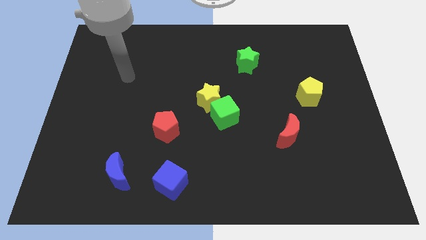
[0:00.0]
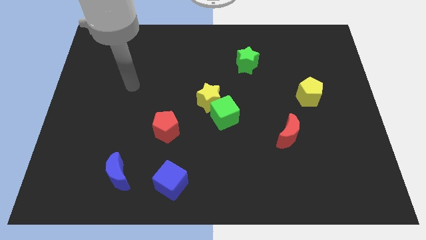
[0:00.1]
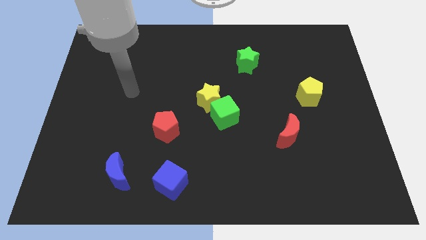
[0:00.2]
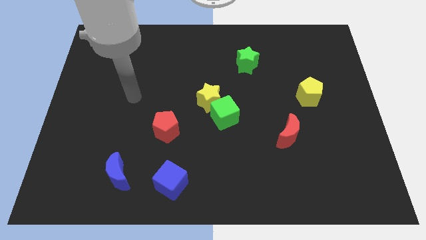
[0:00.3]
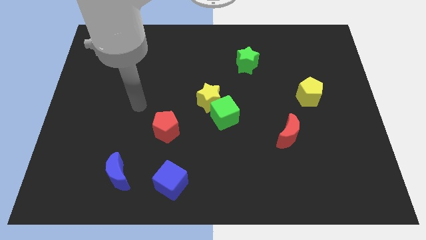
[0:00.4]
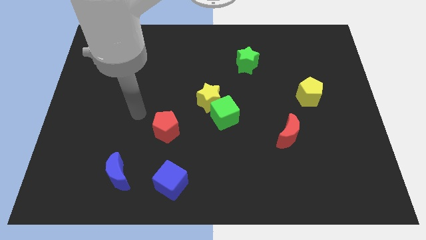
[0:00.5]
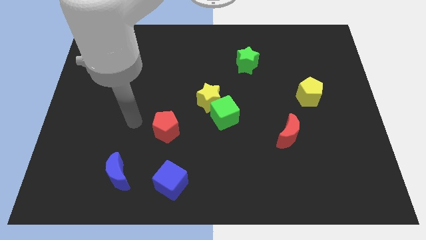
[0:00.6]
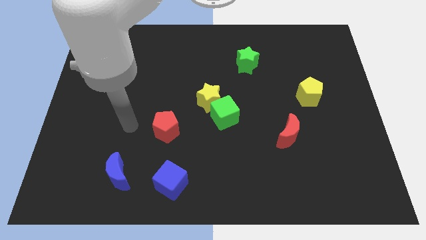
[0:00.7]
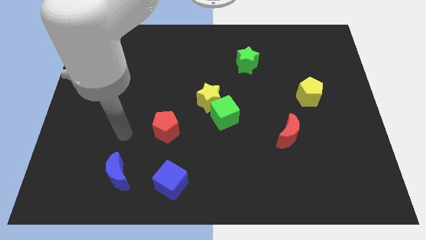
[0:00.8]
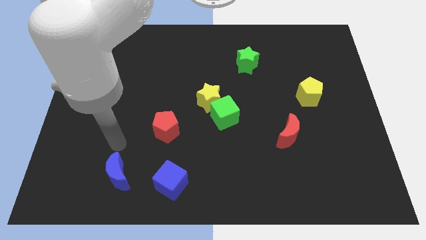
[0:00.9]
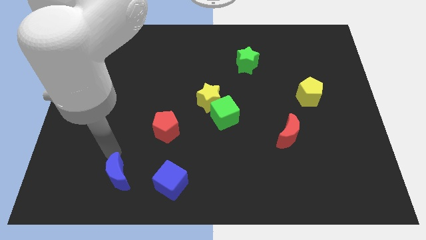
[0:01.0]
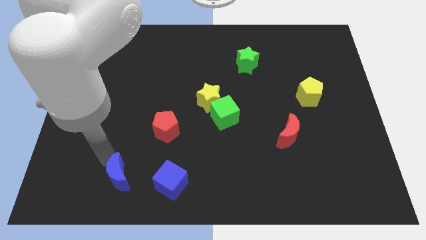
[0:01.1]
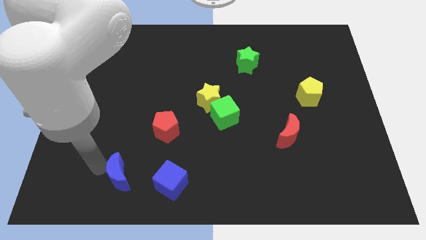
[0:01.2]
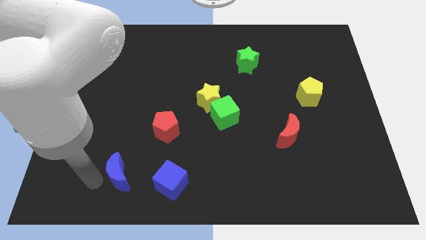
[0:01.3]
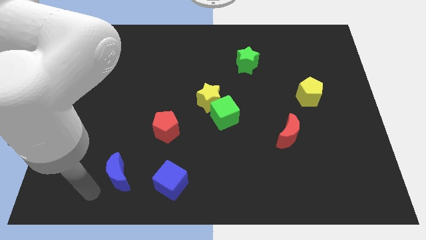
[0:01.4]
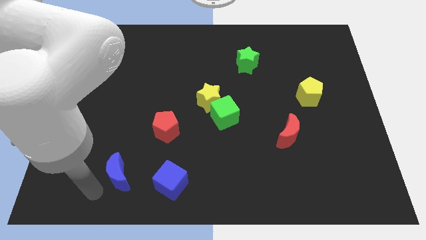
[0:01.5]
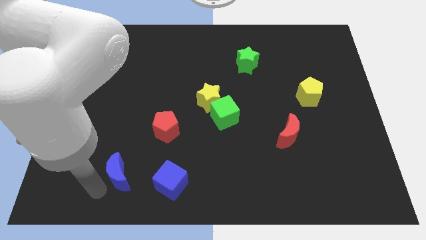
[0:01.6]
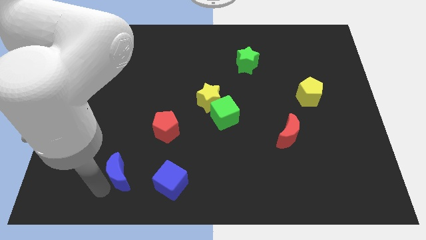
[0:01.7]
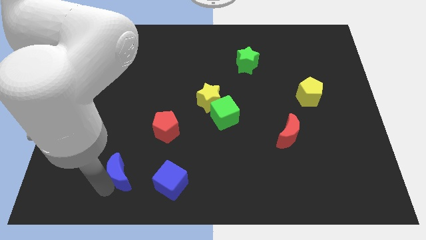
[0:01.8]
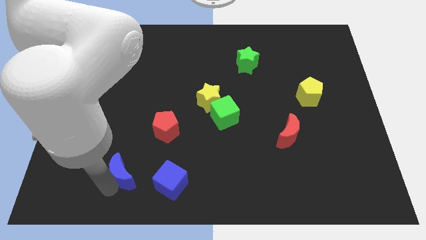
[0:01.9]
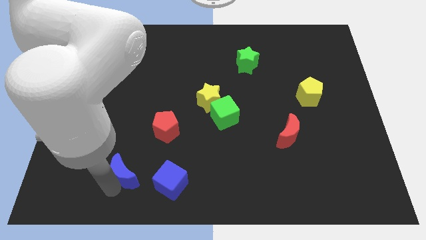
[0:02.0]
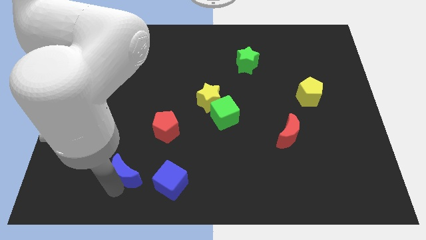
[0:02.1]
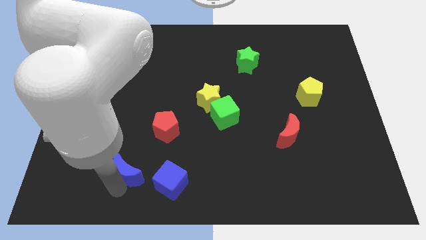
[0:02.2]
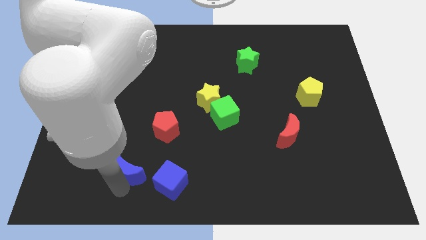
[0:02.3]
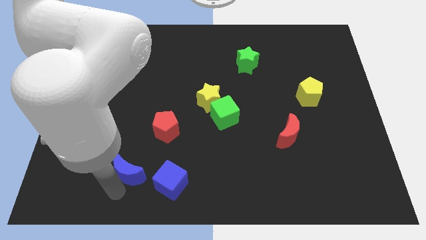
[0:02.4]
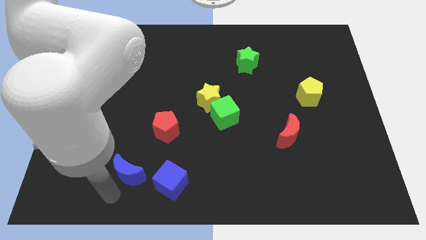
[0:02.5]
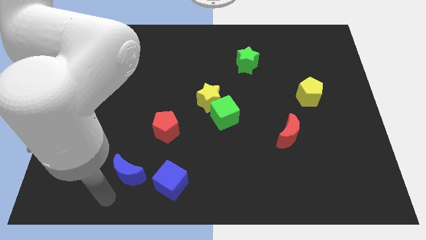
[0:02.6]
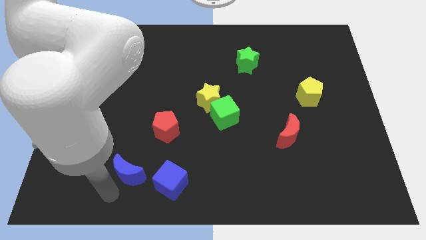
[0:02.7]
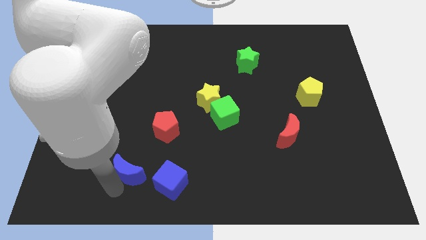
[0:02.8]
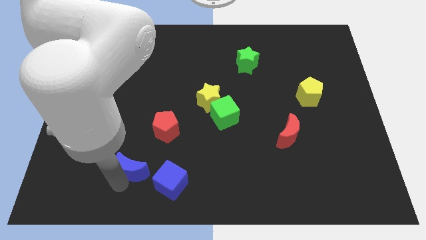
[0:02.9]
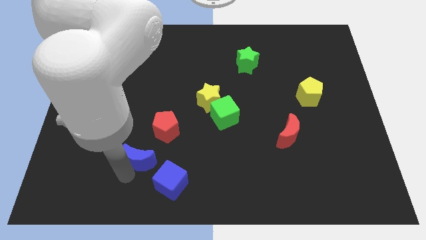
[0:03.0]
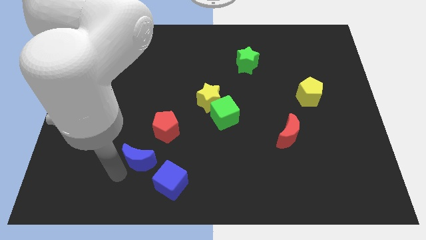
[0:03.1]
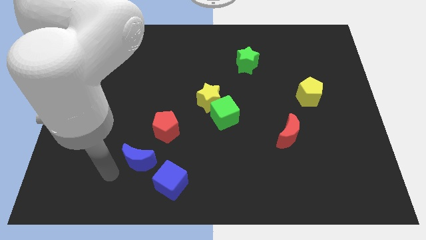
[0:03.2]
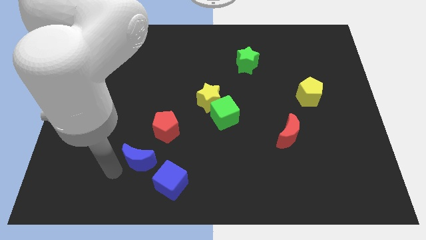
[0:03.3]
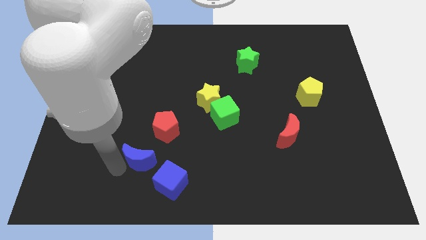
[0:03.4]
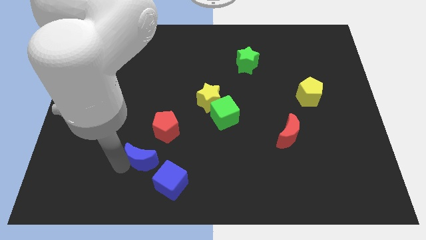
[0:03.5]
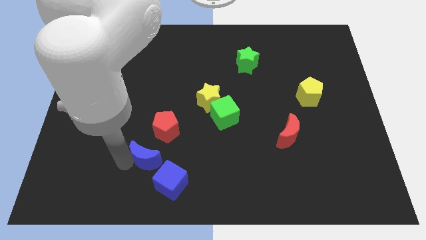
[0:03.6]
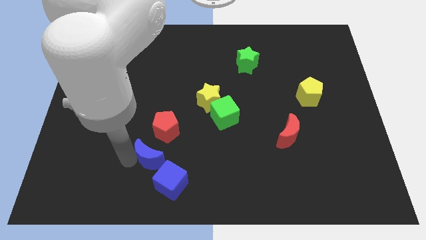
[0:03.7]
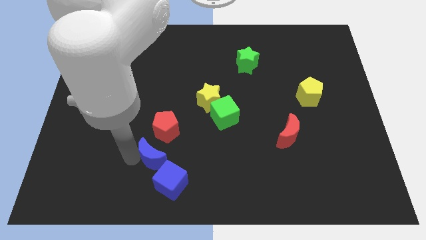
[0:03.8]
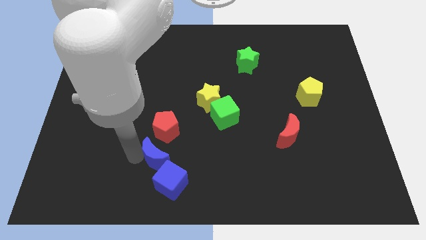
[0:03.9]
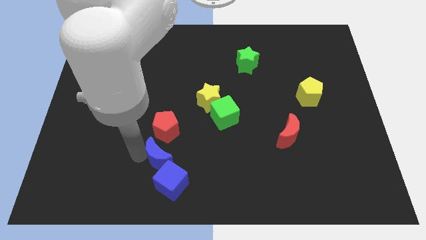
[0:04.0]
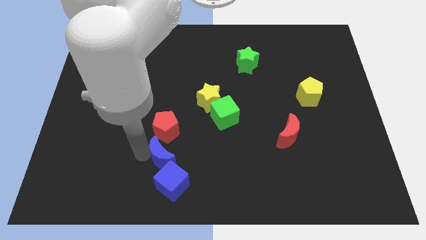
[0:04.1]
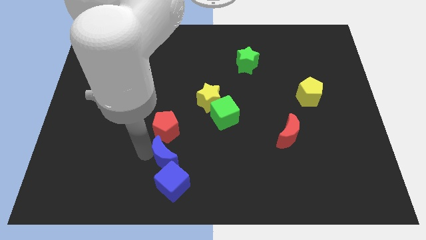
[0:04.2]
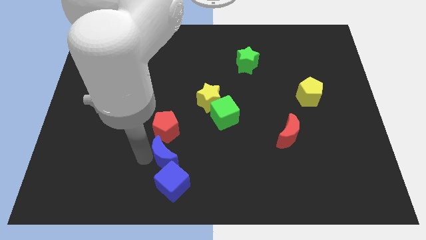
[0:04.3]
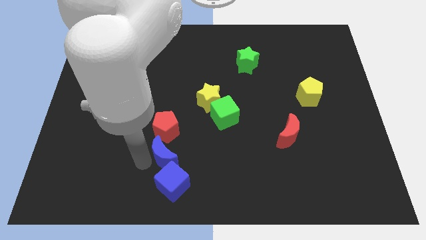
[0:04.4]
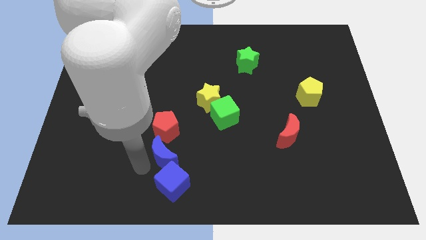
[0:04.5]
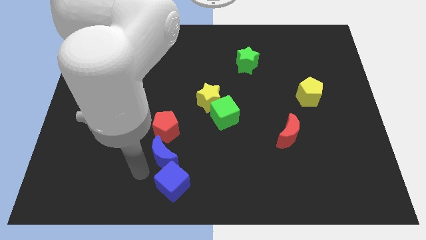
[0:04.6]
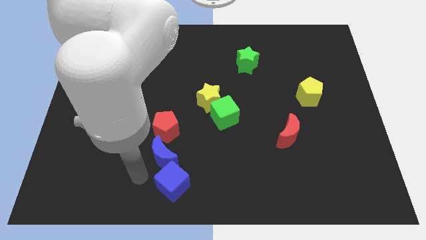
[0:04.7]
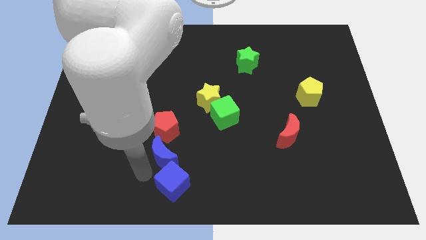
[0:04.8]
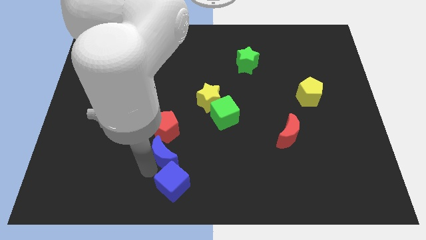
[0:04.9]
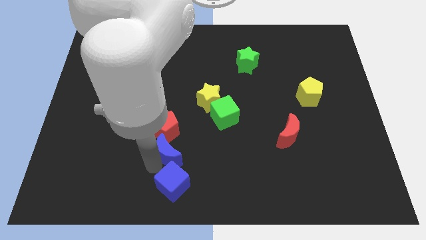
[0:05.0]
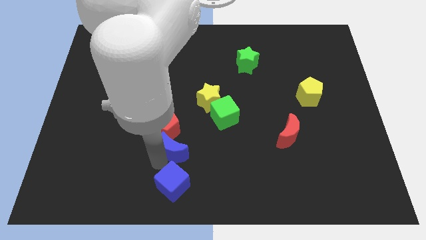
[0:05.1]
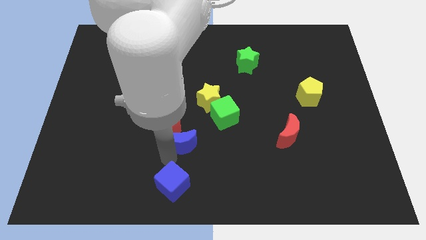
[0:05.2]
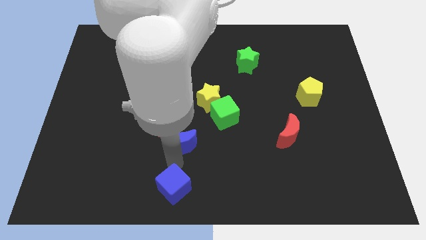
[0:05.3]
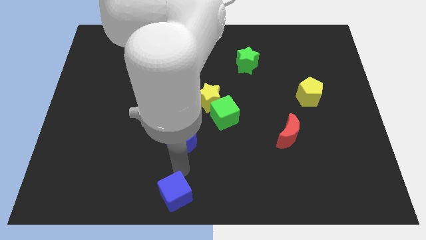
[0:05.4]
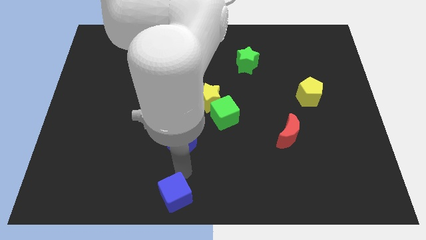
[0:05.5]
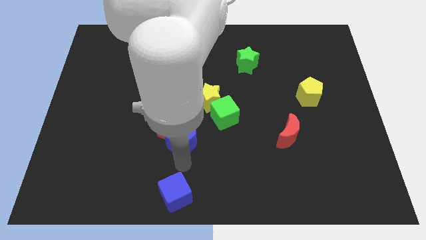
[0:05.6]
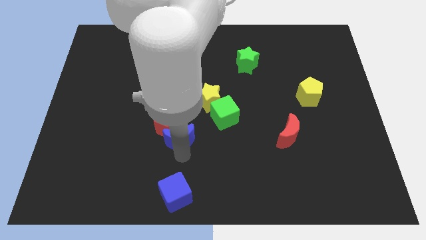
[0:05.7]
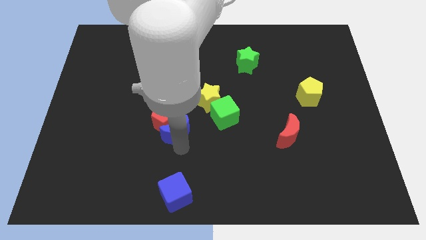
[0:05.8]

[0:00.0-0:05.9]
slide the blue moon just left of the green cube

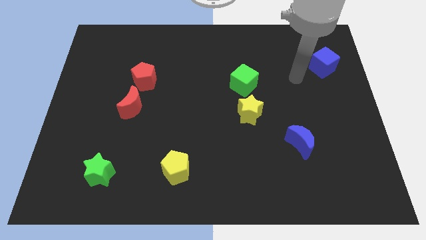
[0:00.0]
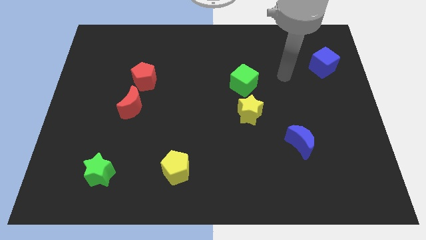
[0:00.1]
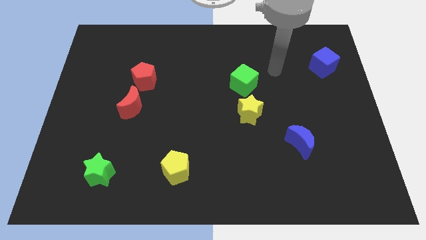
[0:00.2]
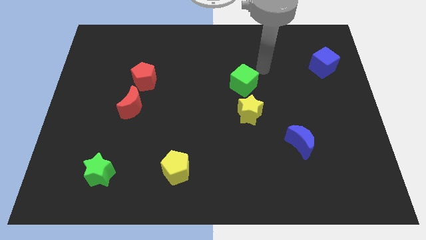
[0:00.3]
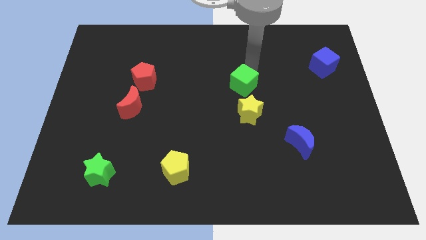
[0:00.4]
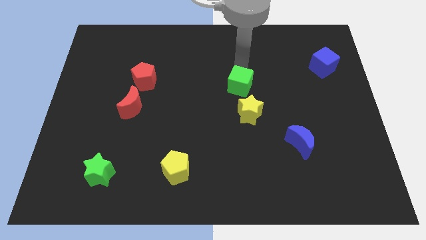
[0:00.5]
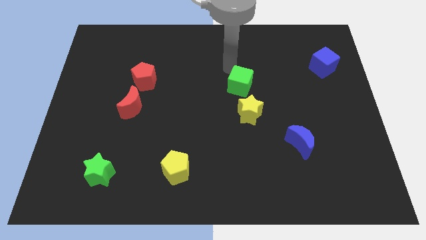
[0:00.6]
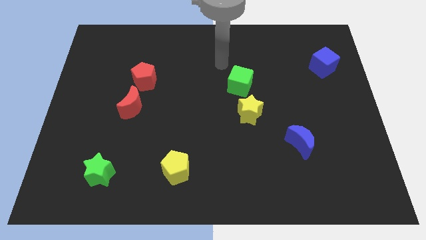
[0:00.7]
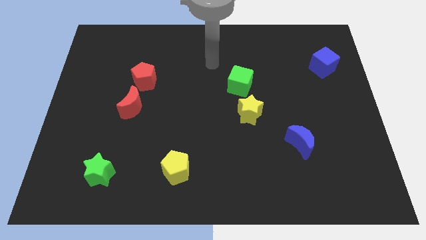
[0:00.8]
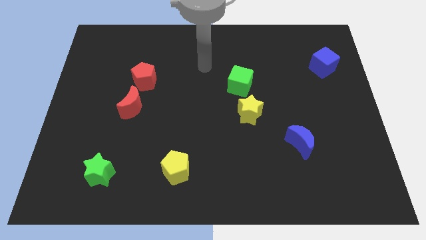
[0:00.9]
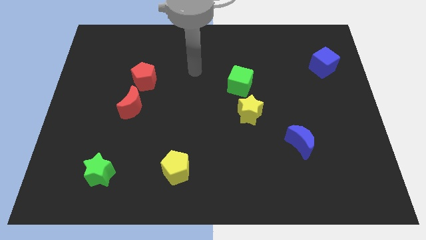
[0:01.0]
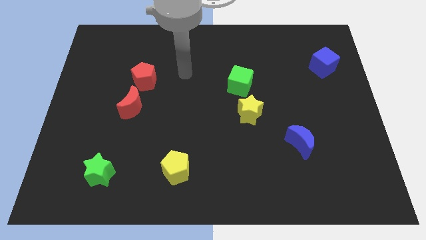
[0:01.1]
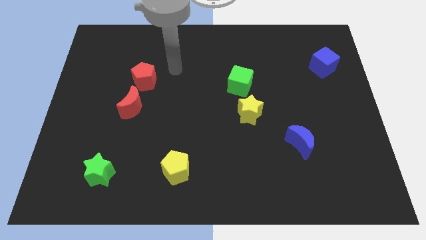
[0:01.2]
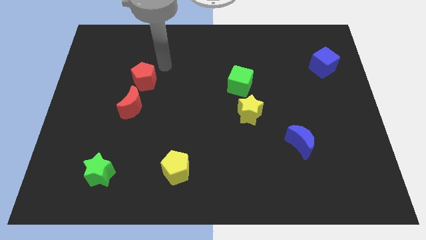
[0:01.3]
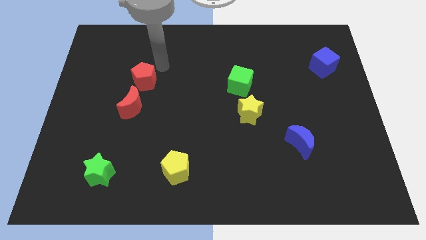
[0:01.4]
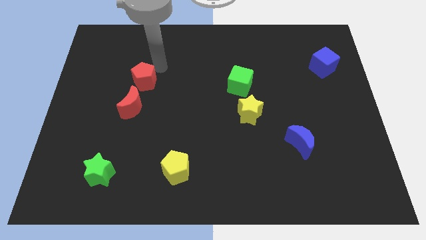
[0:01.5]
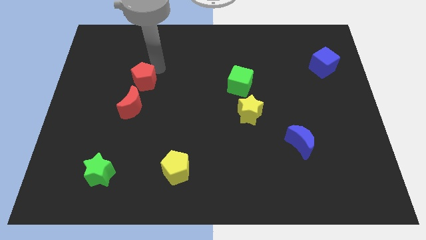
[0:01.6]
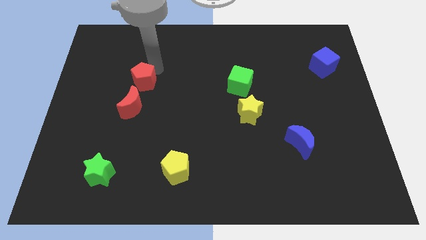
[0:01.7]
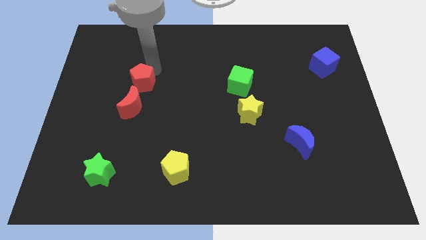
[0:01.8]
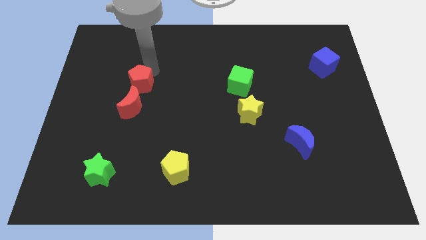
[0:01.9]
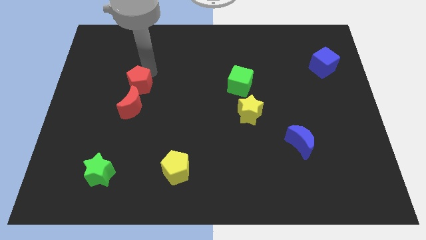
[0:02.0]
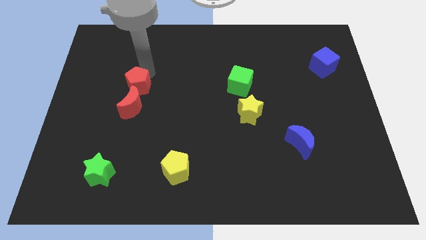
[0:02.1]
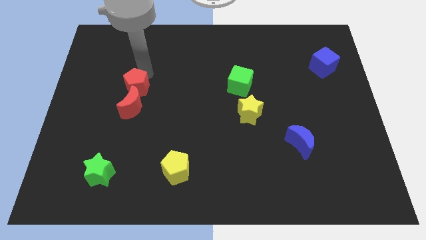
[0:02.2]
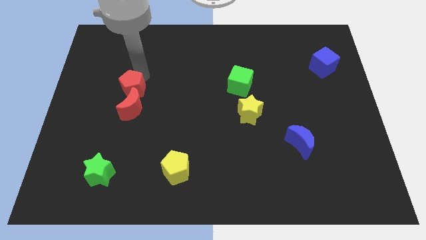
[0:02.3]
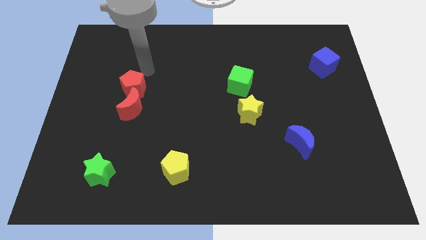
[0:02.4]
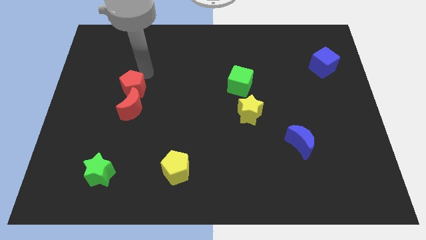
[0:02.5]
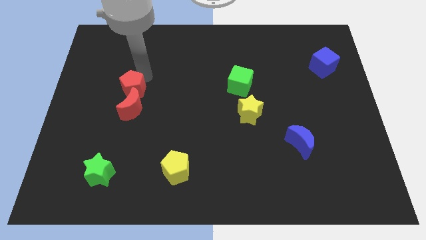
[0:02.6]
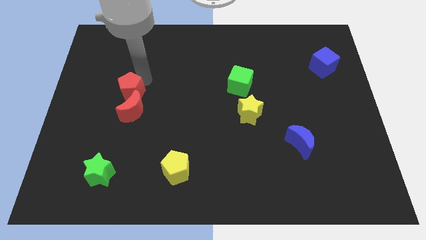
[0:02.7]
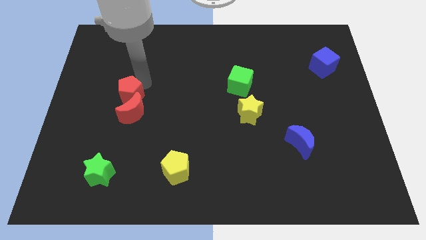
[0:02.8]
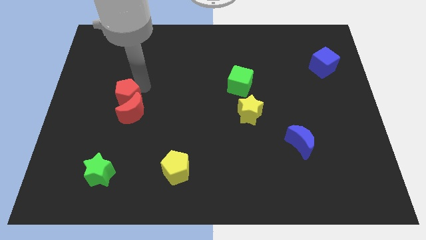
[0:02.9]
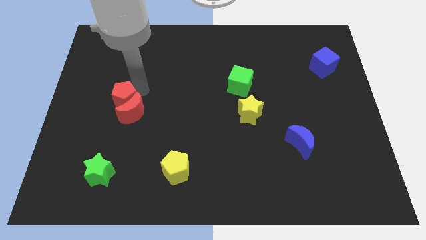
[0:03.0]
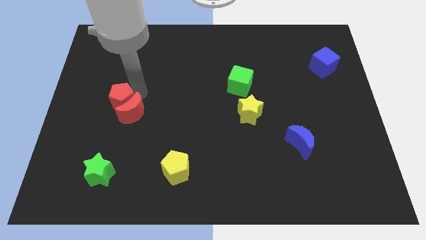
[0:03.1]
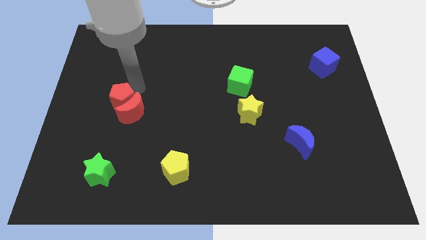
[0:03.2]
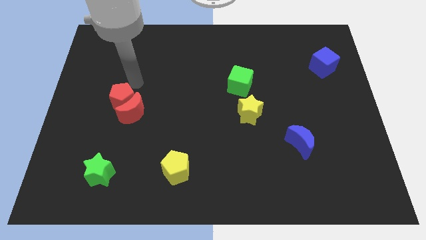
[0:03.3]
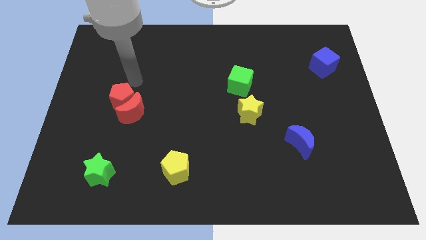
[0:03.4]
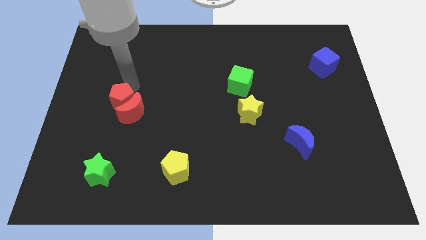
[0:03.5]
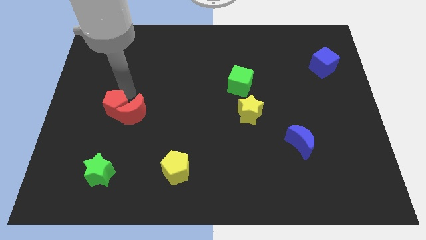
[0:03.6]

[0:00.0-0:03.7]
put the red pentagon diagonally down and to the left of the red moon
